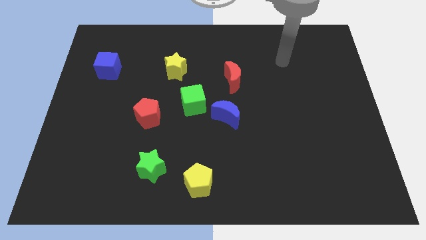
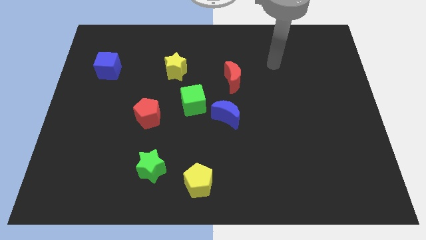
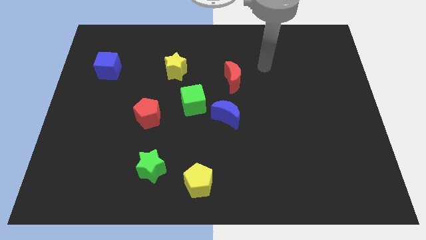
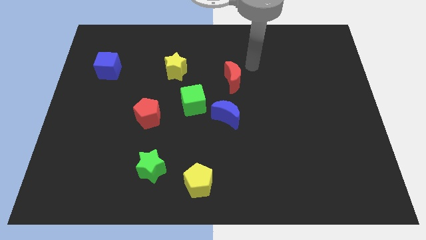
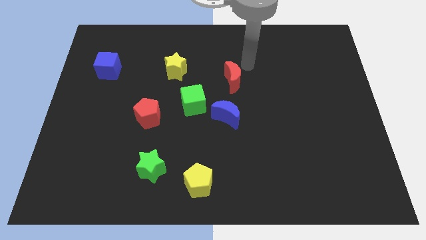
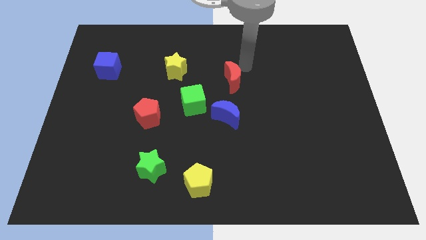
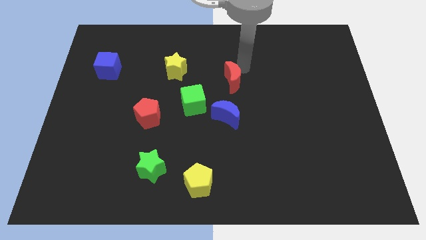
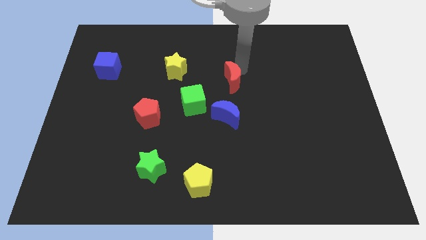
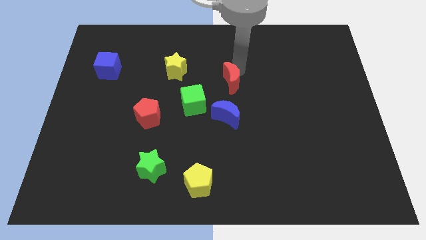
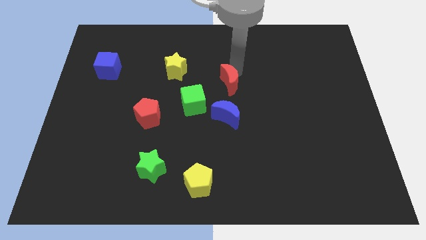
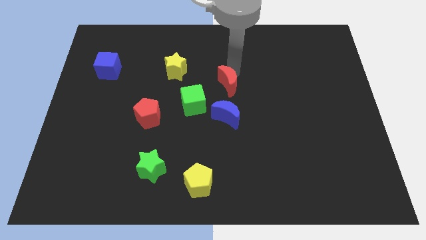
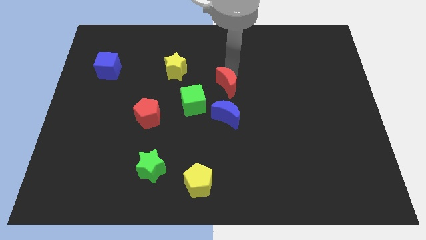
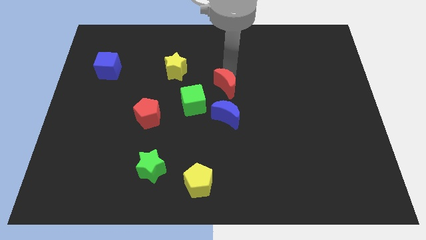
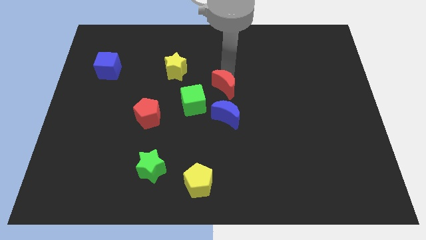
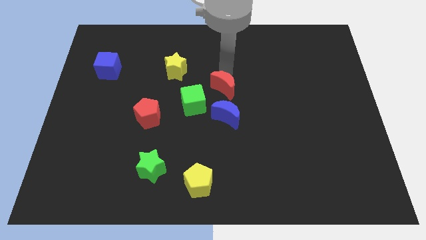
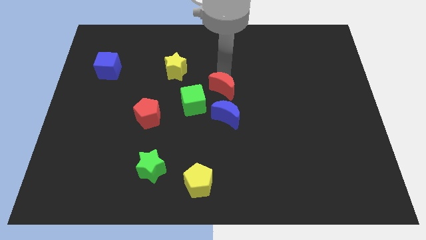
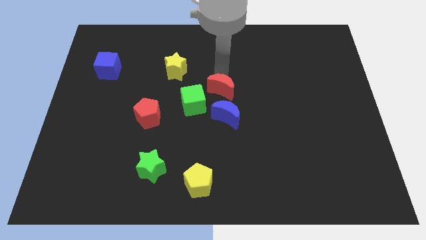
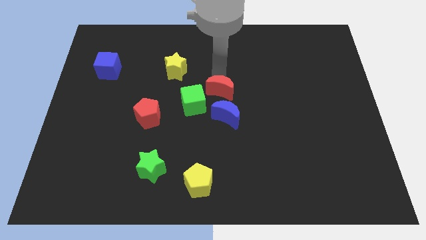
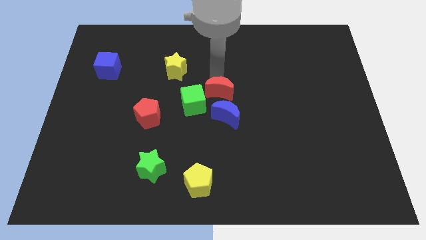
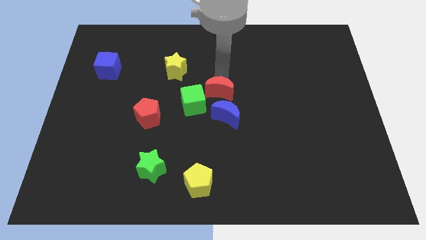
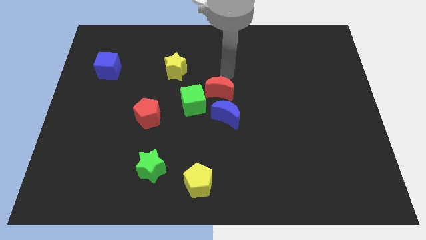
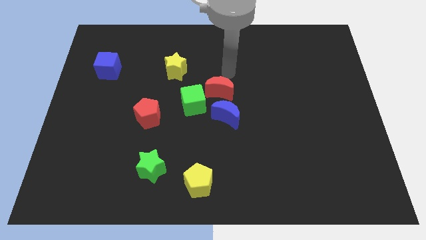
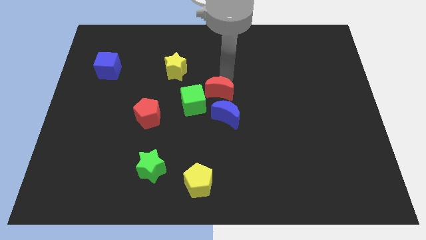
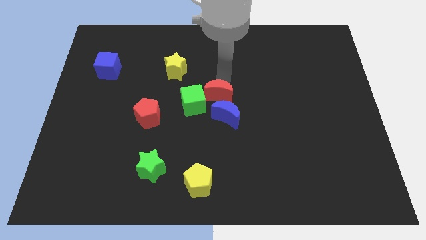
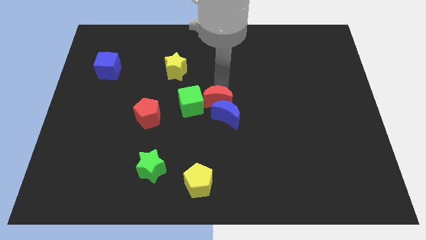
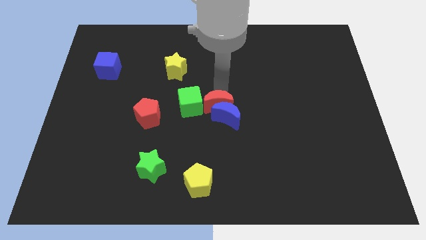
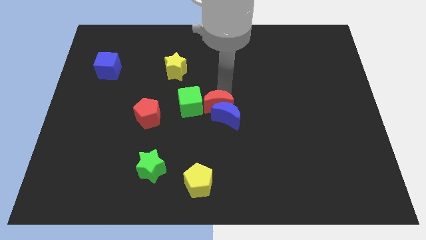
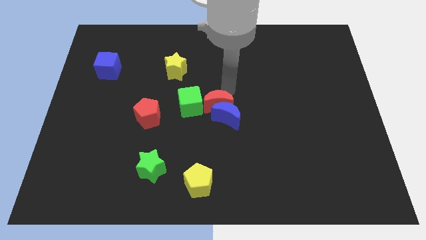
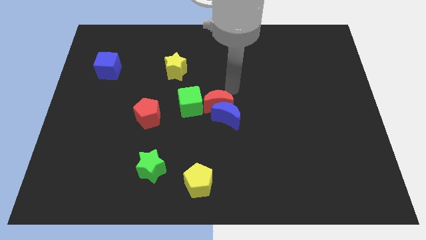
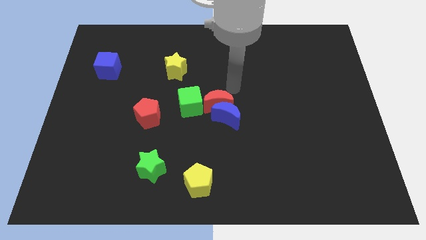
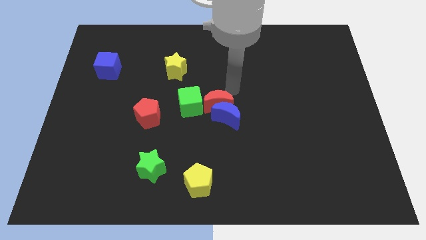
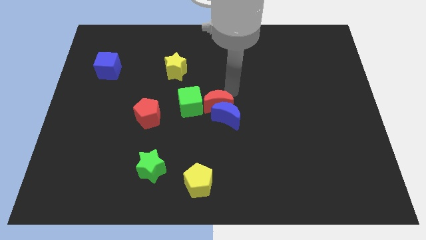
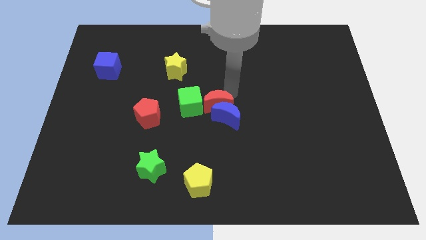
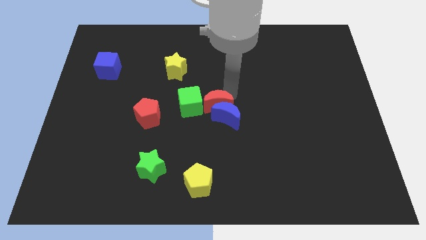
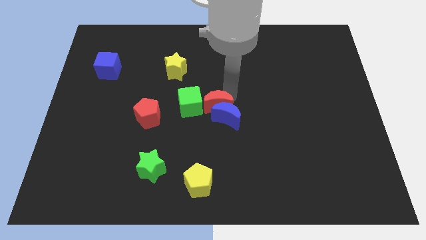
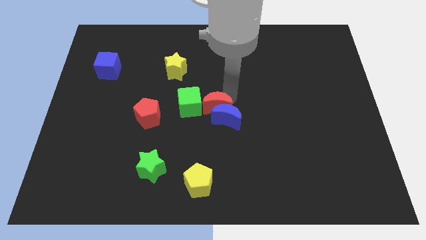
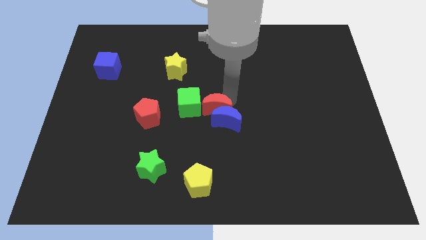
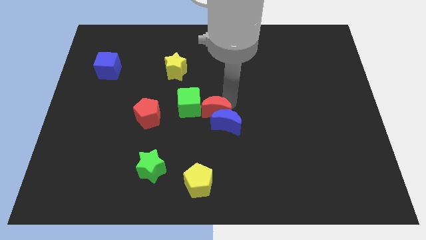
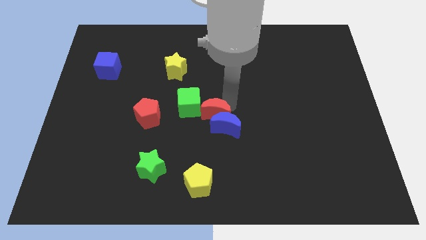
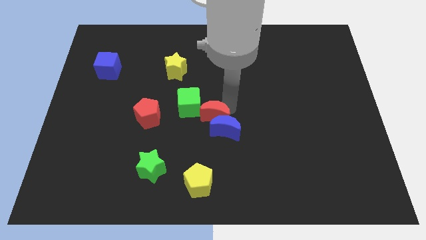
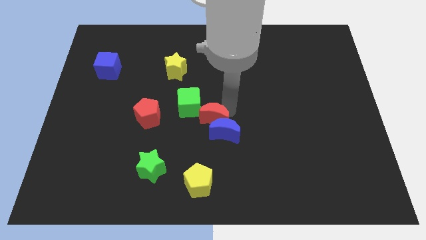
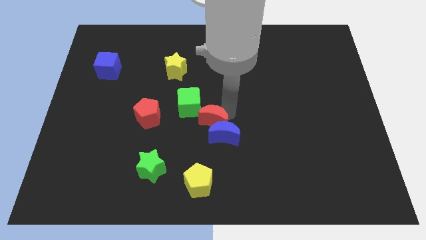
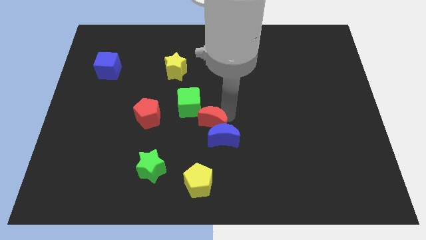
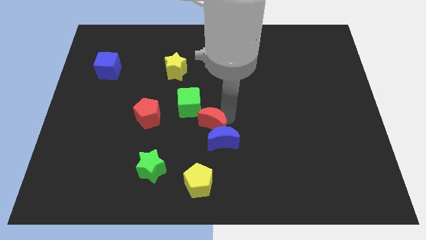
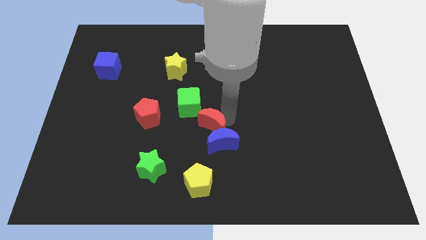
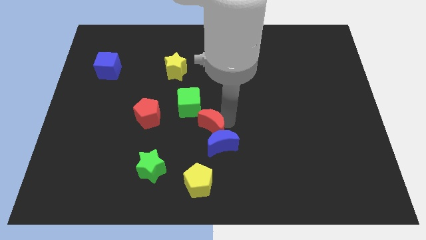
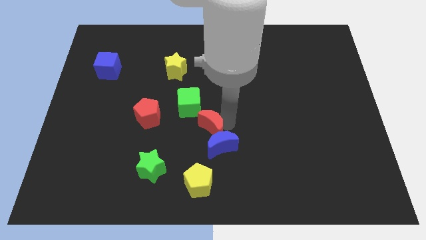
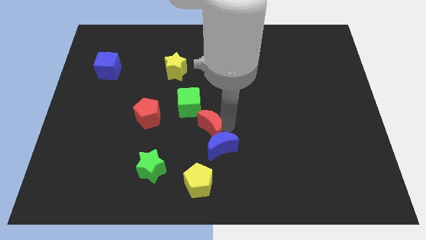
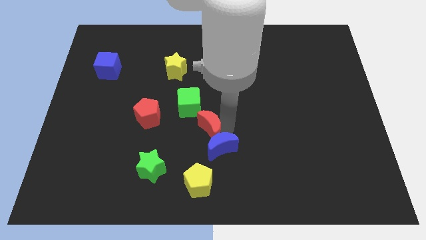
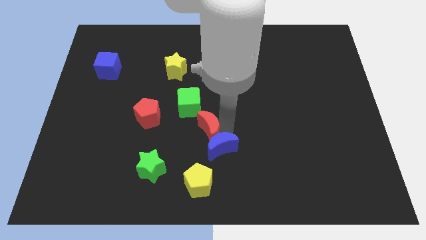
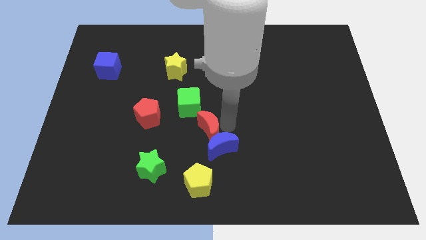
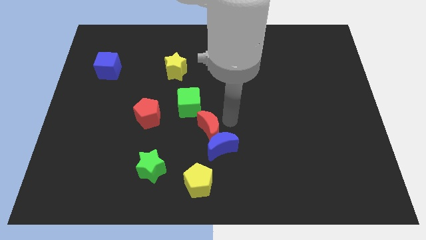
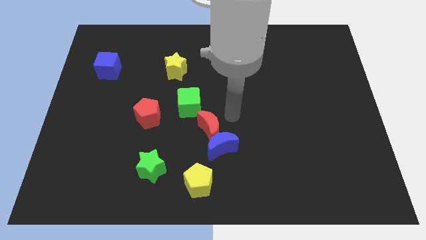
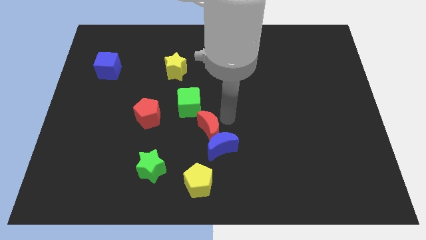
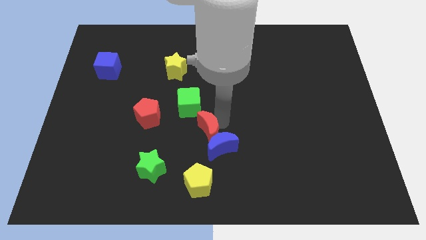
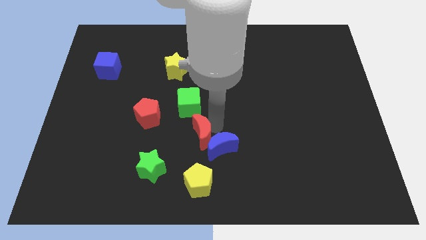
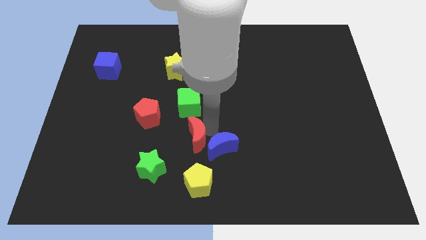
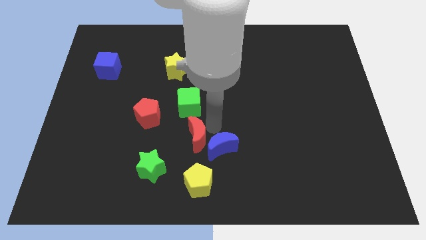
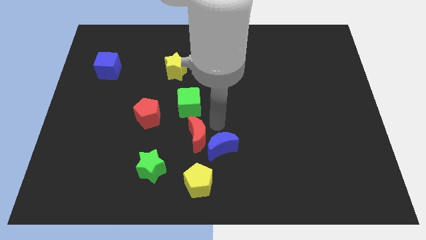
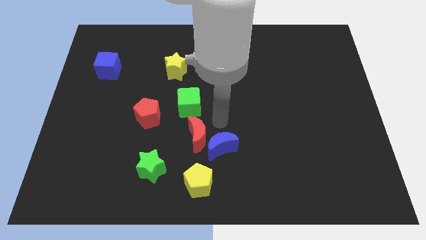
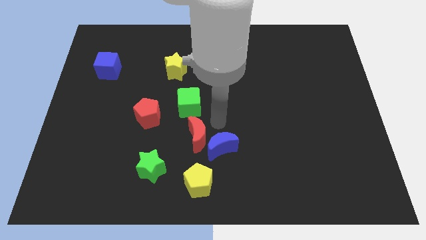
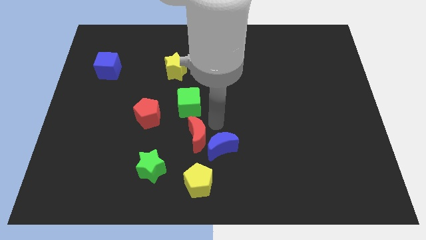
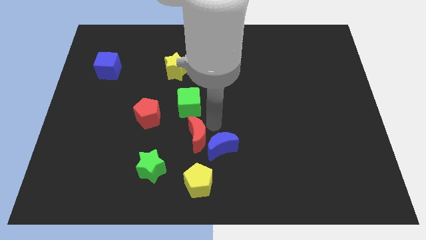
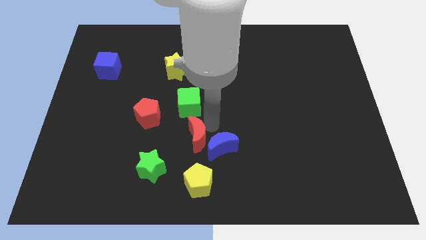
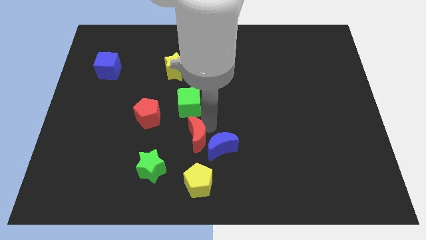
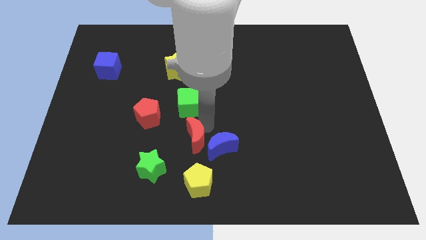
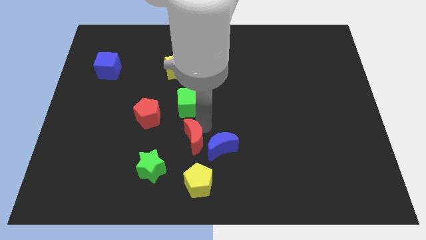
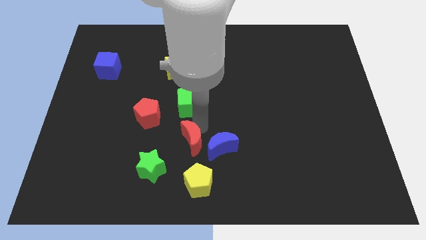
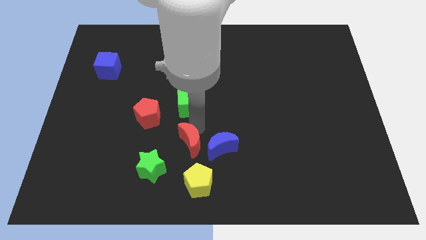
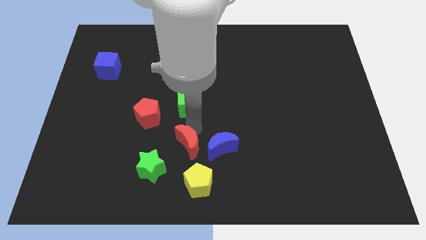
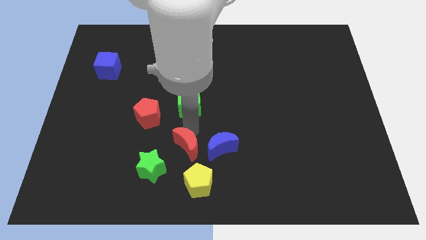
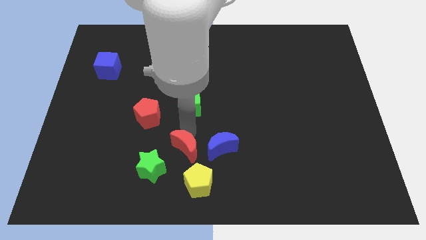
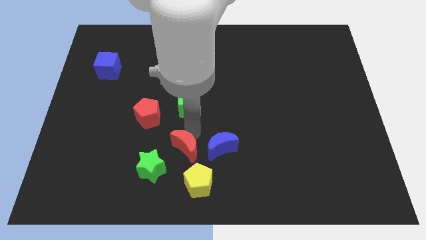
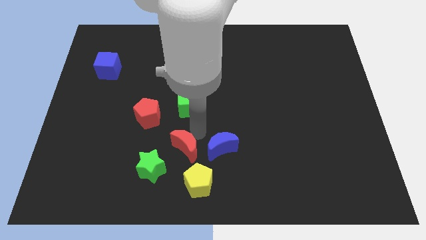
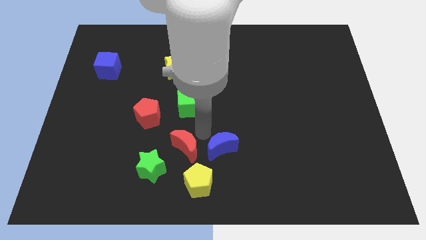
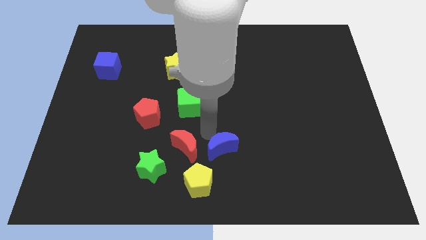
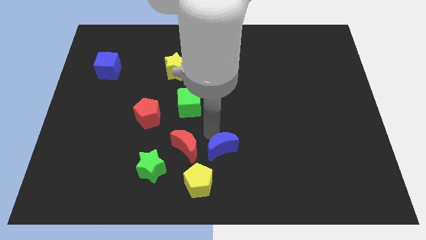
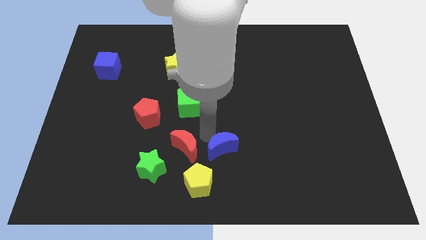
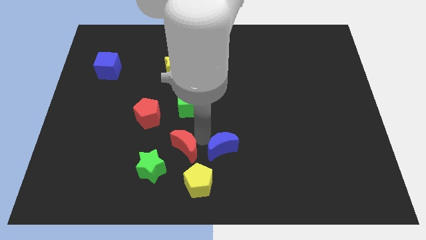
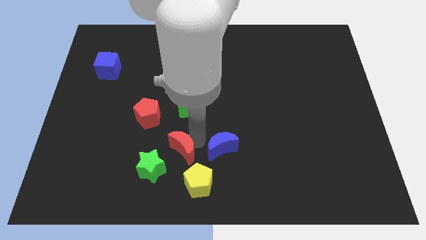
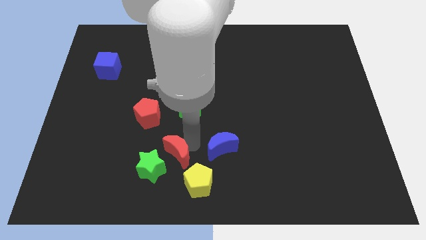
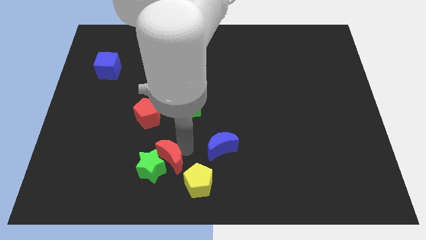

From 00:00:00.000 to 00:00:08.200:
slide the red moon next to the green star
